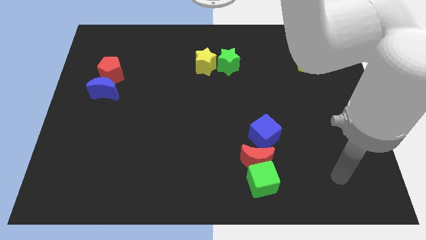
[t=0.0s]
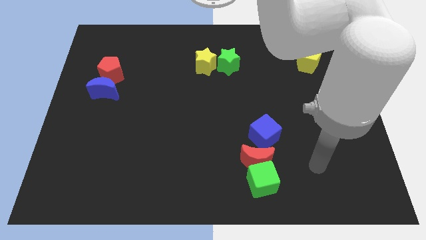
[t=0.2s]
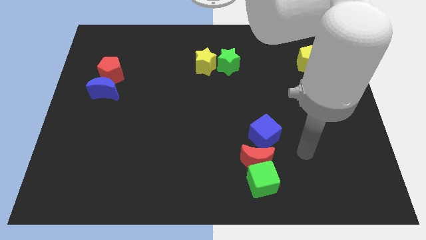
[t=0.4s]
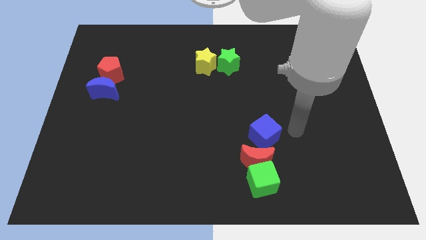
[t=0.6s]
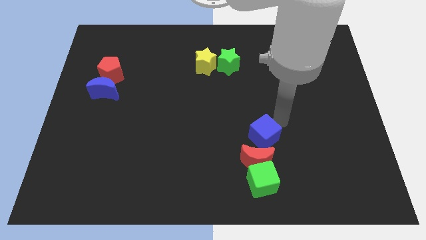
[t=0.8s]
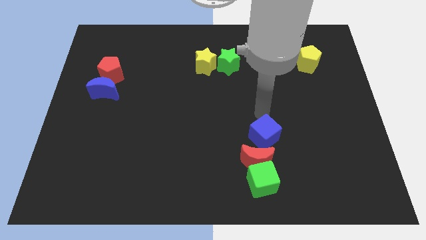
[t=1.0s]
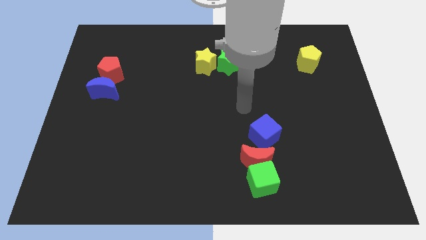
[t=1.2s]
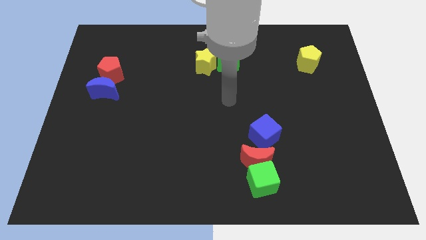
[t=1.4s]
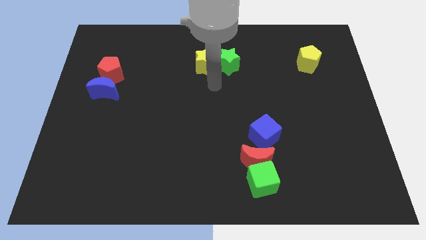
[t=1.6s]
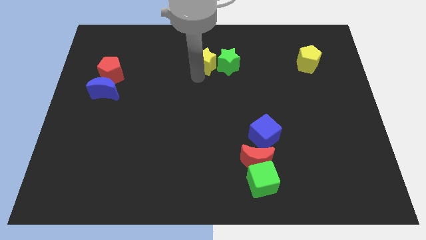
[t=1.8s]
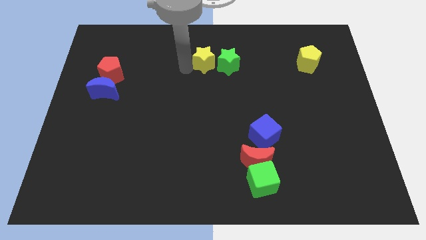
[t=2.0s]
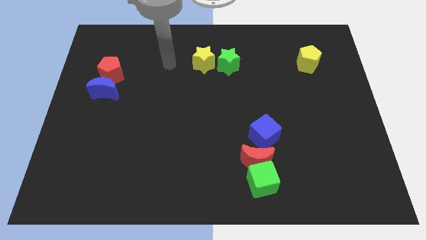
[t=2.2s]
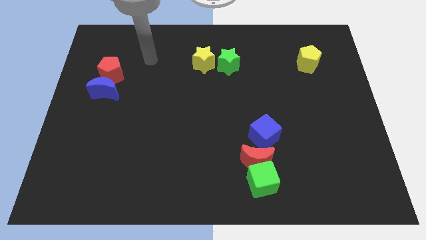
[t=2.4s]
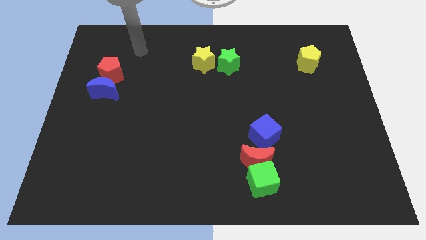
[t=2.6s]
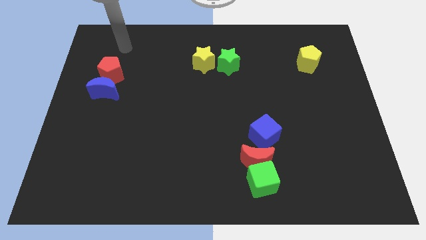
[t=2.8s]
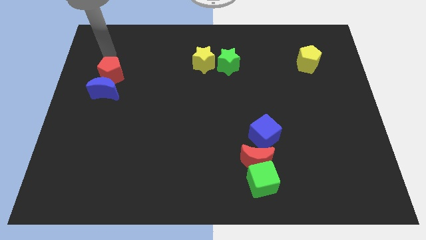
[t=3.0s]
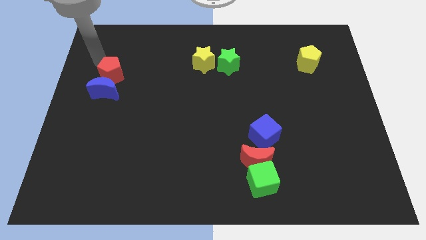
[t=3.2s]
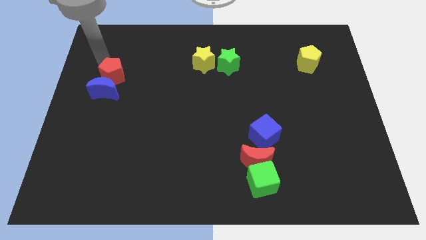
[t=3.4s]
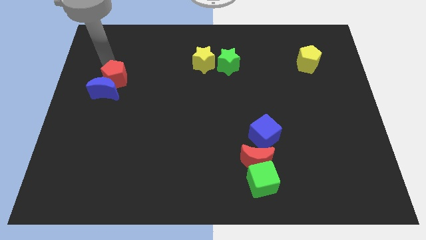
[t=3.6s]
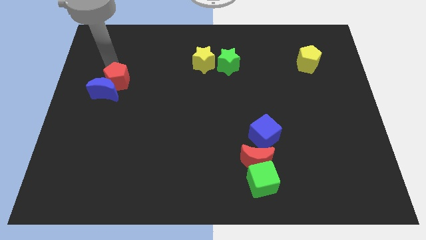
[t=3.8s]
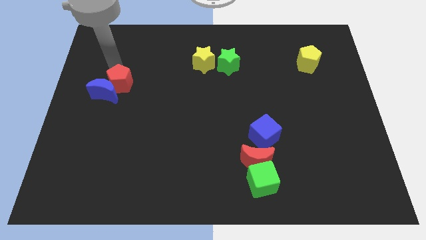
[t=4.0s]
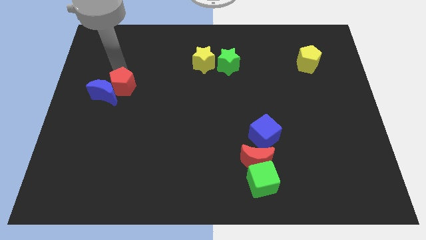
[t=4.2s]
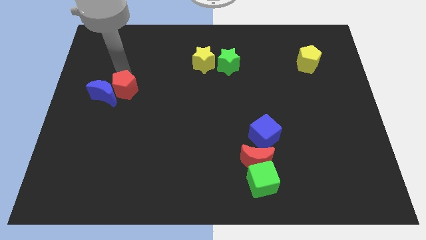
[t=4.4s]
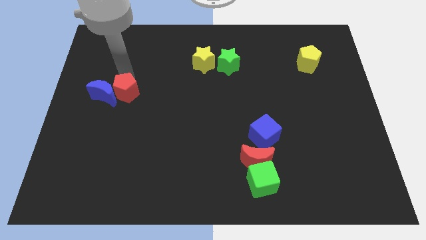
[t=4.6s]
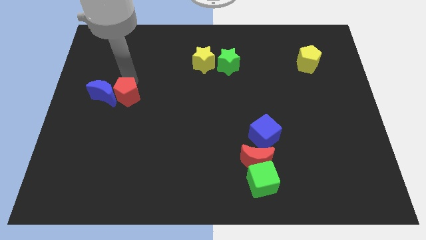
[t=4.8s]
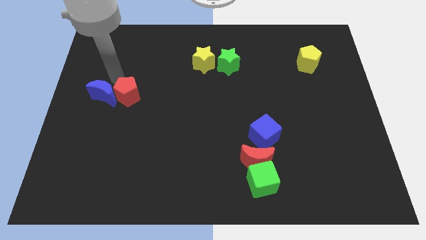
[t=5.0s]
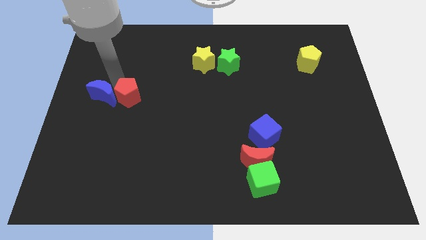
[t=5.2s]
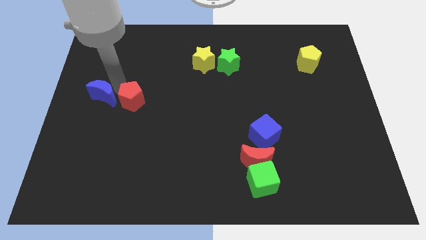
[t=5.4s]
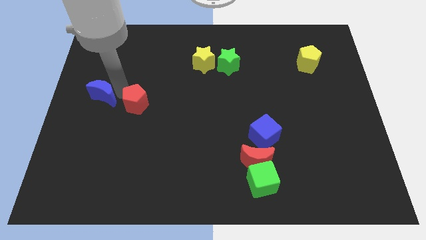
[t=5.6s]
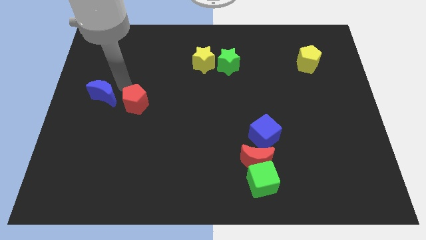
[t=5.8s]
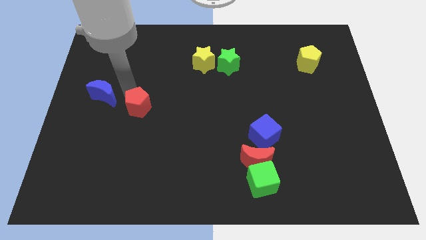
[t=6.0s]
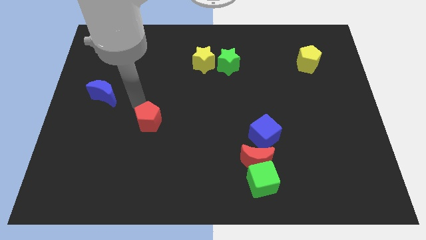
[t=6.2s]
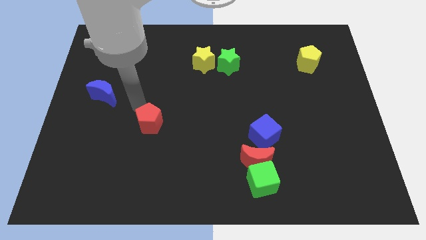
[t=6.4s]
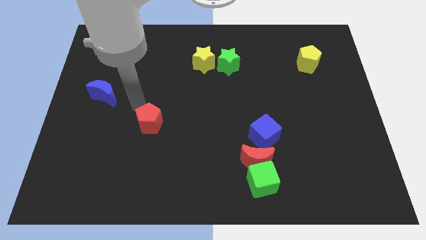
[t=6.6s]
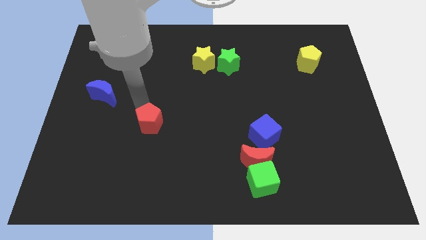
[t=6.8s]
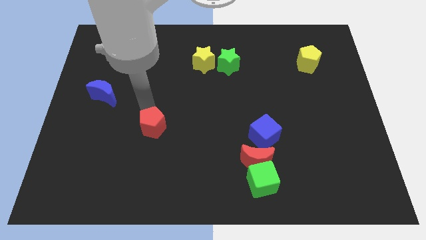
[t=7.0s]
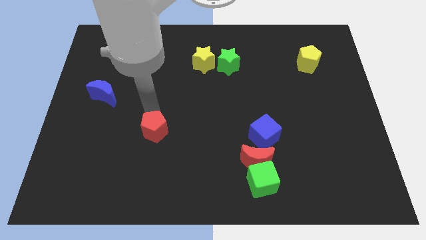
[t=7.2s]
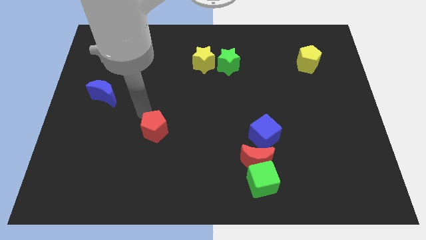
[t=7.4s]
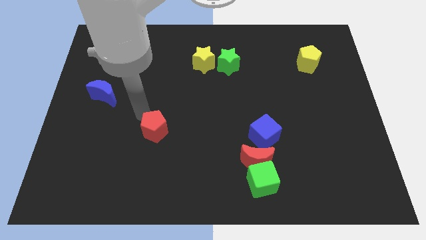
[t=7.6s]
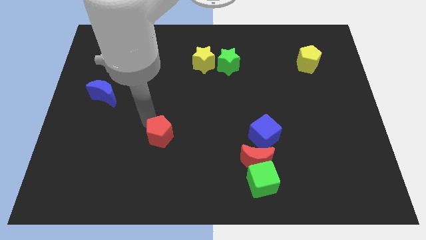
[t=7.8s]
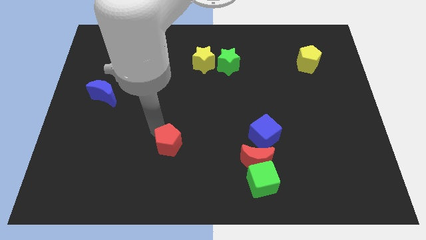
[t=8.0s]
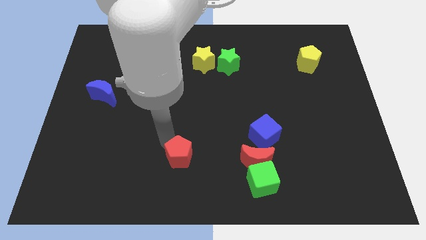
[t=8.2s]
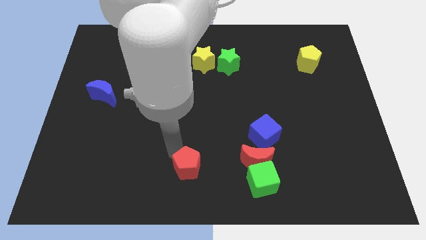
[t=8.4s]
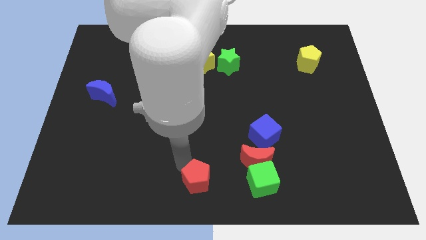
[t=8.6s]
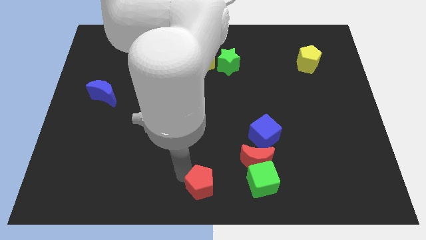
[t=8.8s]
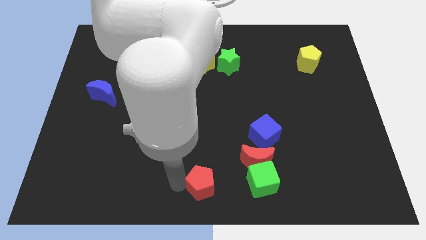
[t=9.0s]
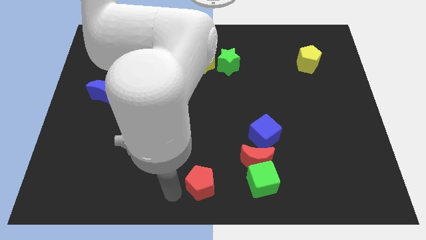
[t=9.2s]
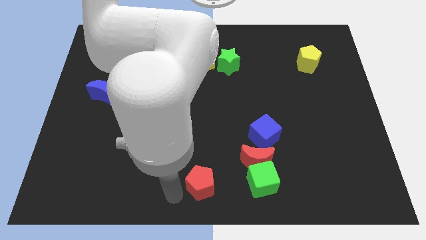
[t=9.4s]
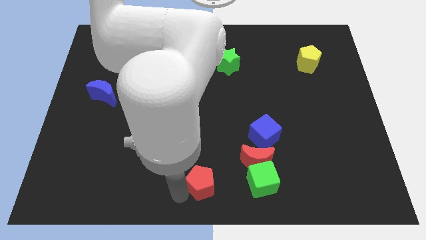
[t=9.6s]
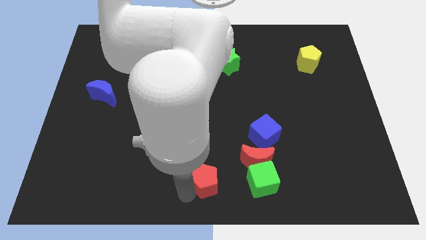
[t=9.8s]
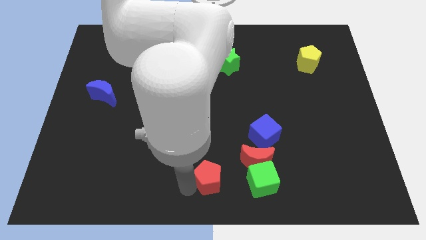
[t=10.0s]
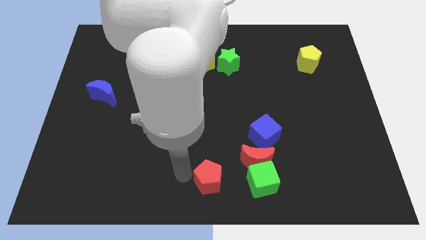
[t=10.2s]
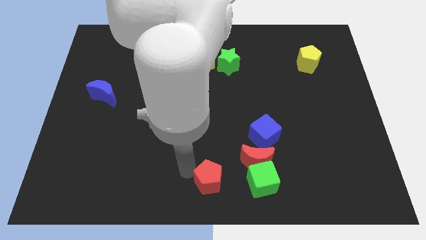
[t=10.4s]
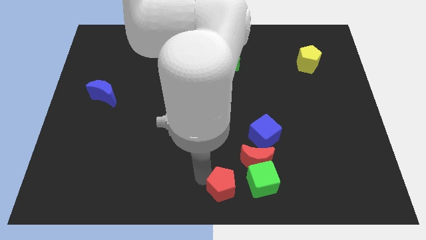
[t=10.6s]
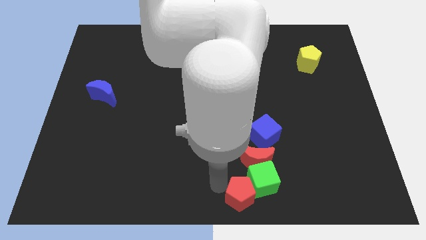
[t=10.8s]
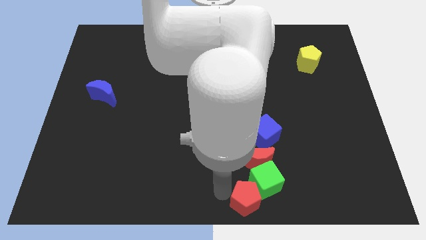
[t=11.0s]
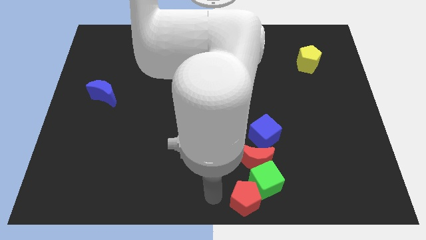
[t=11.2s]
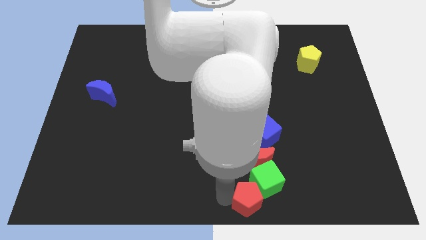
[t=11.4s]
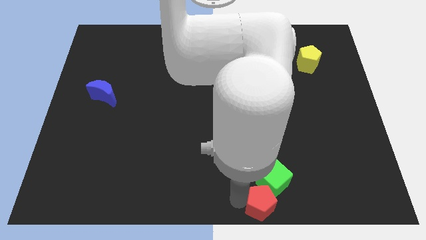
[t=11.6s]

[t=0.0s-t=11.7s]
push the red pentagon to the bottom of the blue cube
